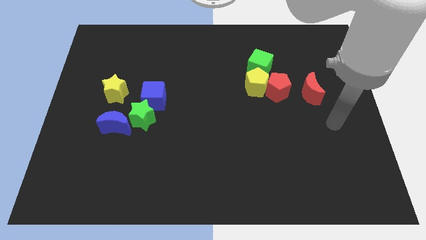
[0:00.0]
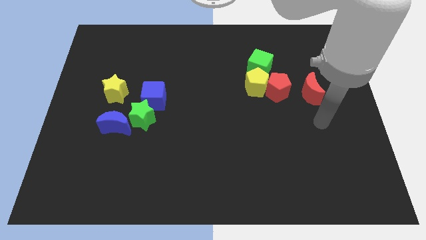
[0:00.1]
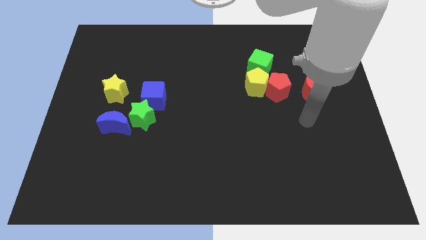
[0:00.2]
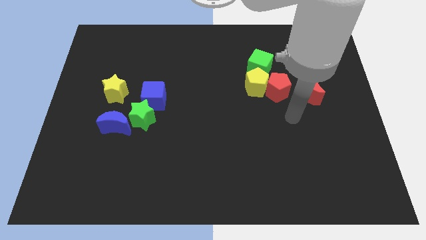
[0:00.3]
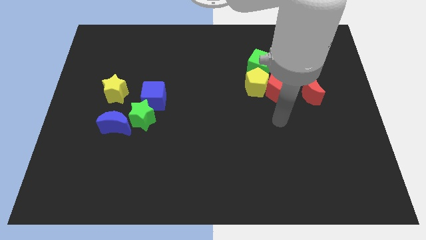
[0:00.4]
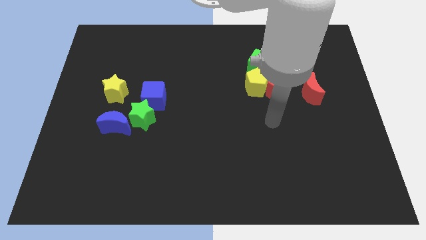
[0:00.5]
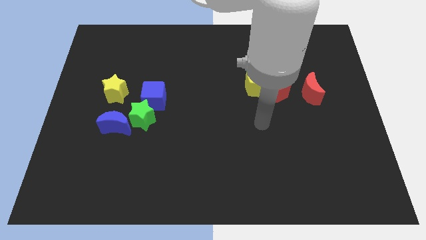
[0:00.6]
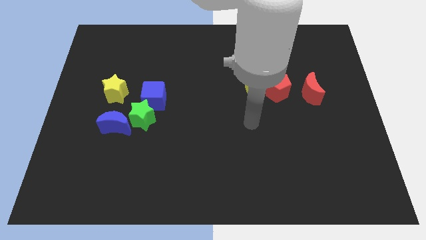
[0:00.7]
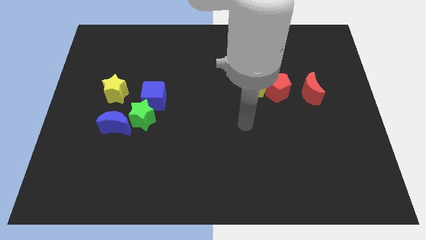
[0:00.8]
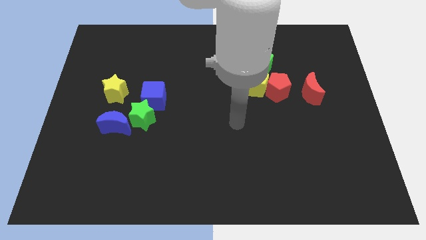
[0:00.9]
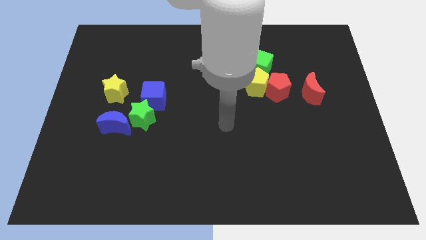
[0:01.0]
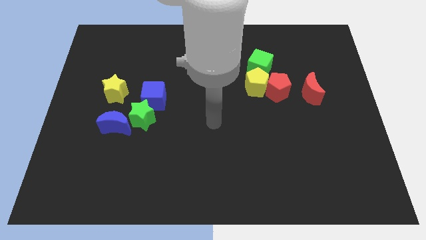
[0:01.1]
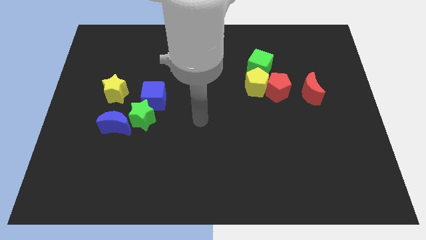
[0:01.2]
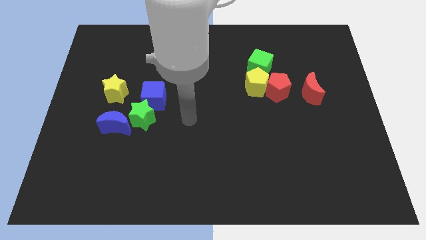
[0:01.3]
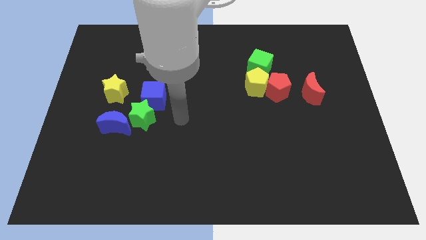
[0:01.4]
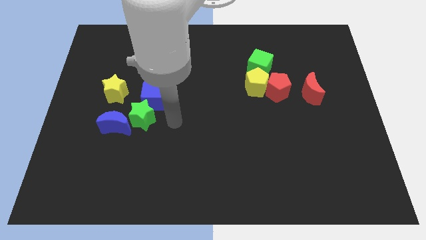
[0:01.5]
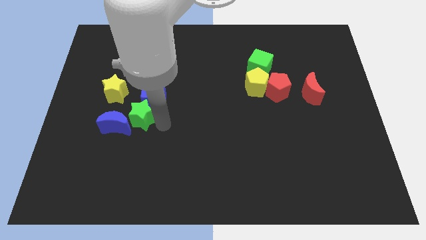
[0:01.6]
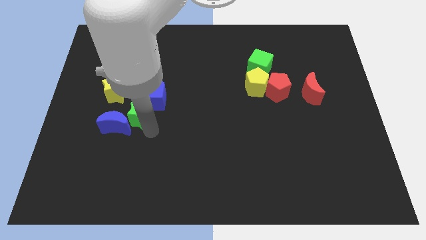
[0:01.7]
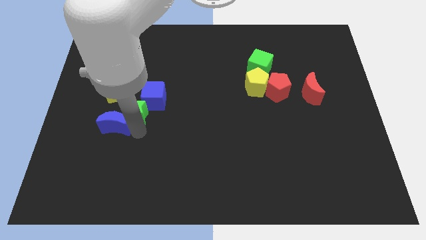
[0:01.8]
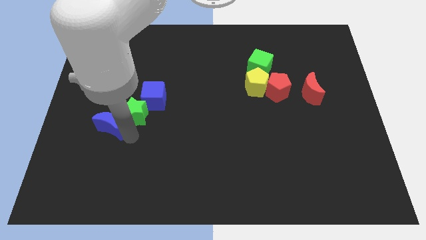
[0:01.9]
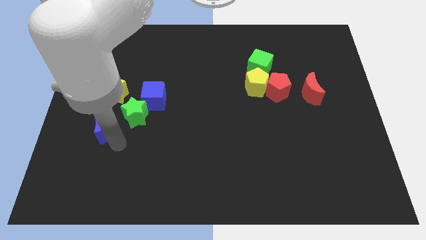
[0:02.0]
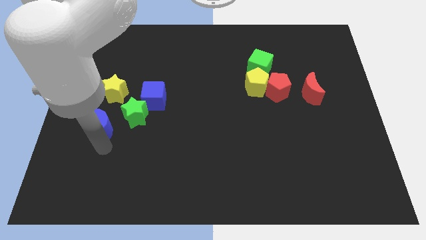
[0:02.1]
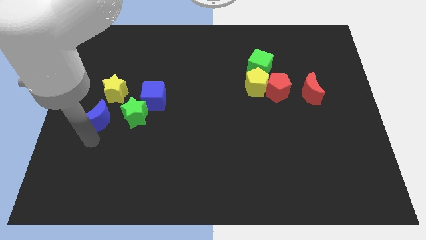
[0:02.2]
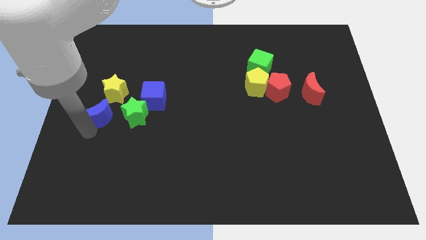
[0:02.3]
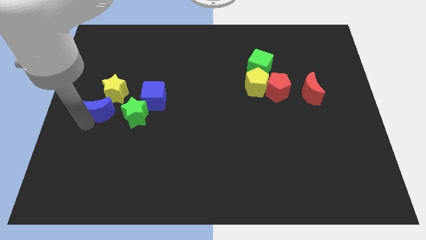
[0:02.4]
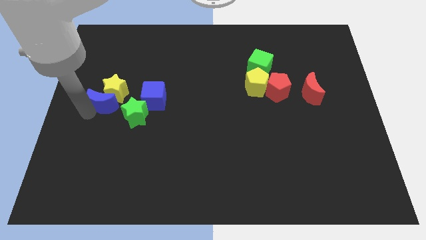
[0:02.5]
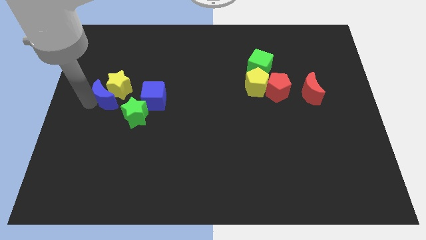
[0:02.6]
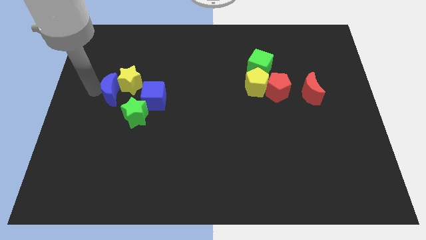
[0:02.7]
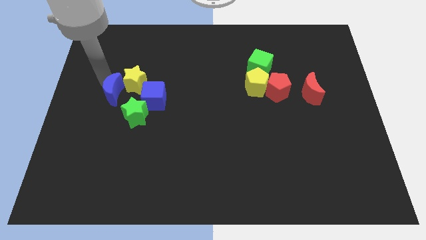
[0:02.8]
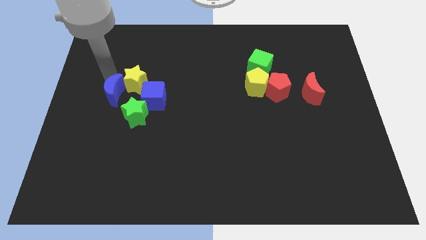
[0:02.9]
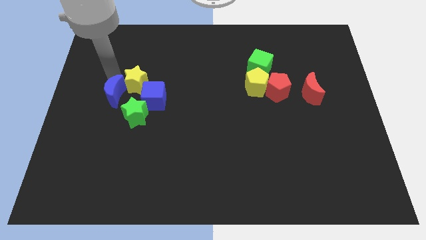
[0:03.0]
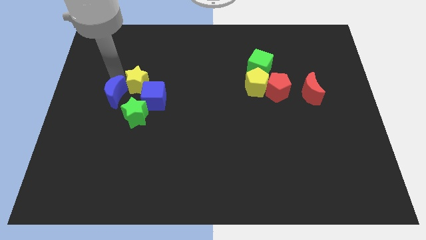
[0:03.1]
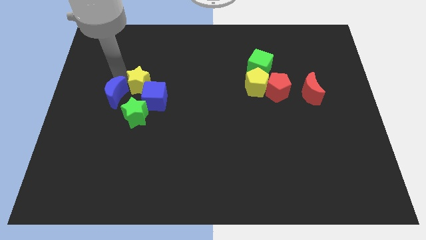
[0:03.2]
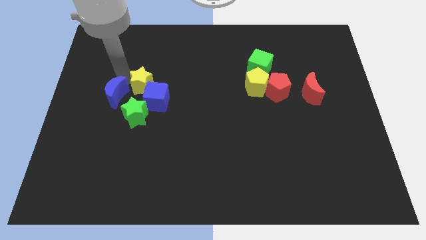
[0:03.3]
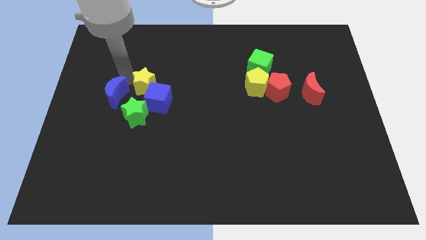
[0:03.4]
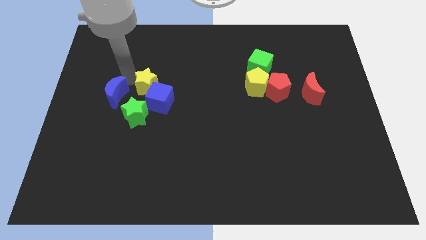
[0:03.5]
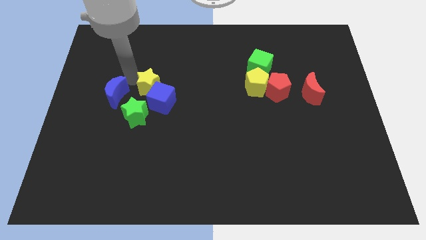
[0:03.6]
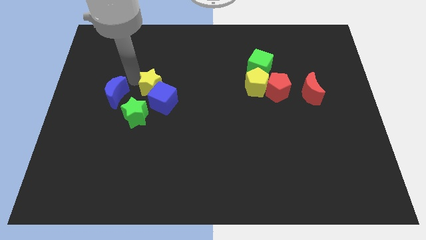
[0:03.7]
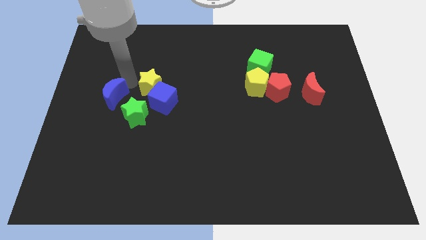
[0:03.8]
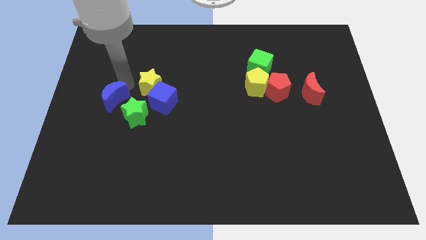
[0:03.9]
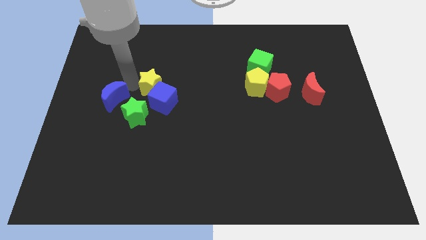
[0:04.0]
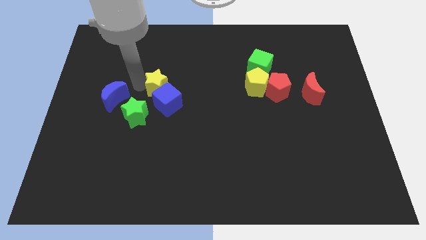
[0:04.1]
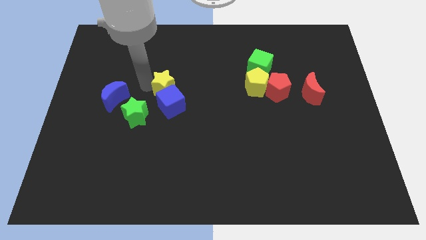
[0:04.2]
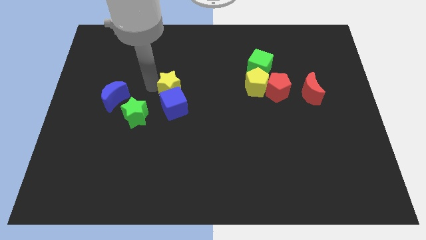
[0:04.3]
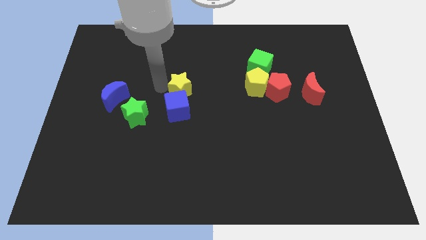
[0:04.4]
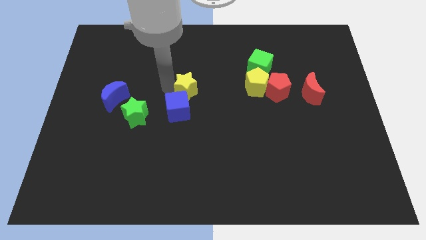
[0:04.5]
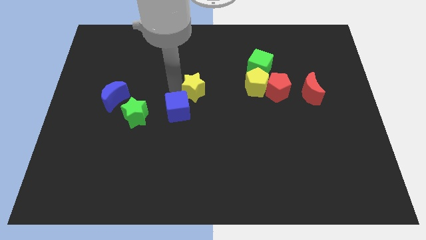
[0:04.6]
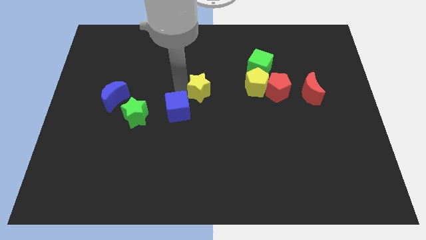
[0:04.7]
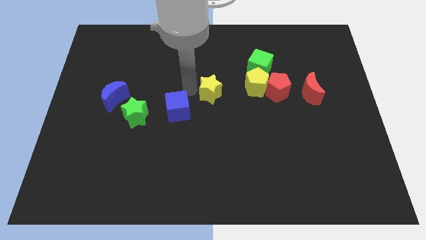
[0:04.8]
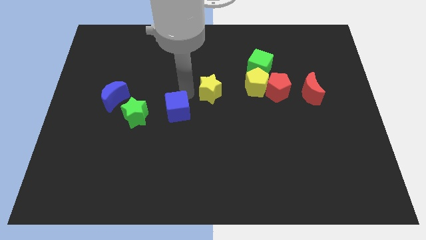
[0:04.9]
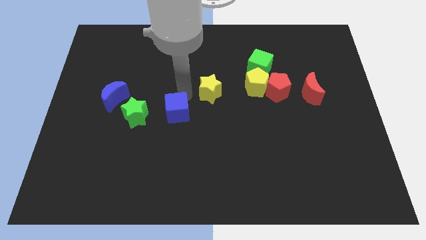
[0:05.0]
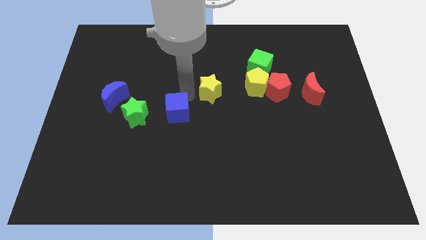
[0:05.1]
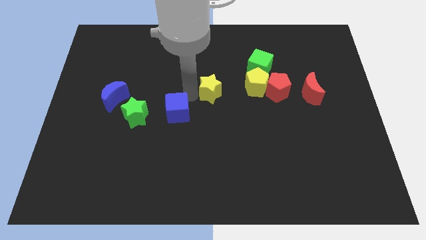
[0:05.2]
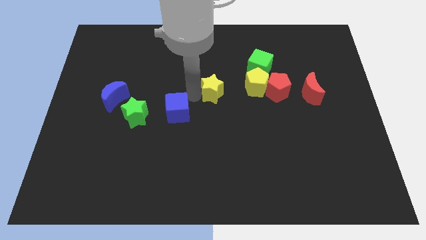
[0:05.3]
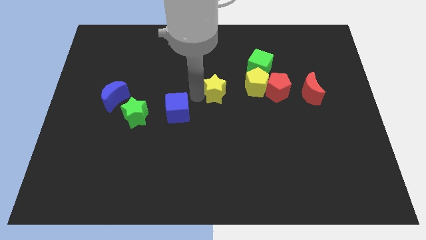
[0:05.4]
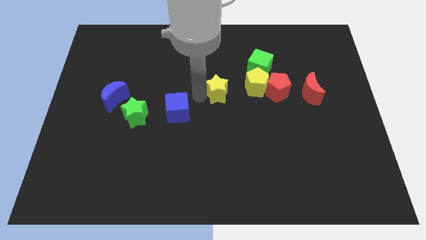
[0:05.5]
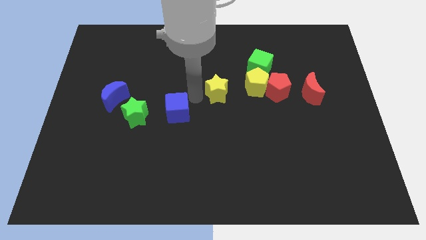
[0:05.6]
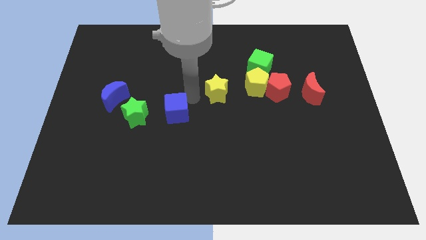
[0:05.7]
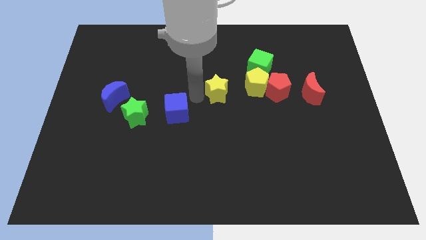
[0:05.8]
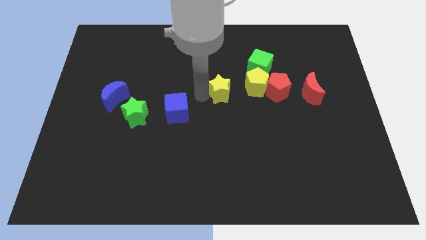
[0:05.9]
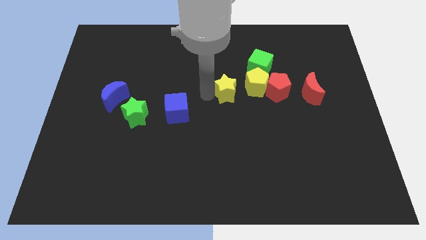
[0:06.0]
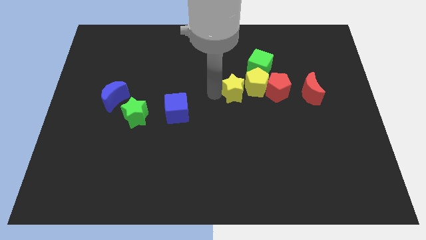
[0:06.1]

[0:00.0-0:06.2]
push the yellow star next to the yellow pentagon
